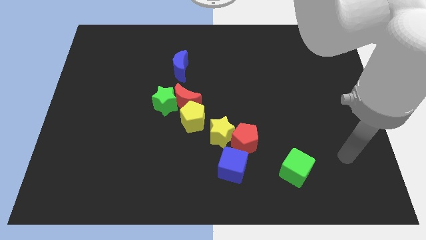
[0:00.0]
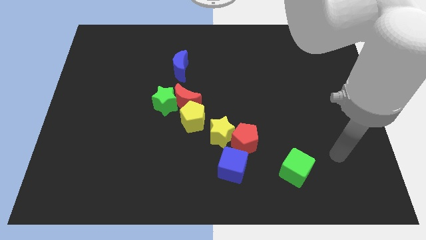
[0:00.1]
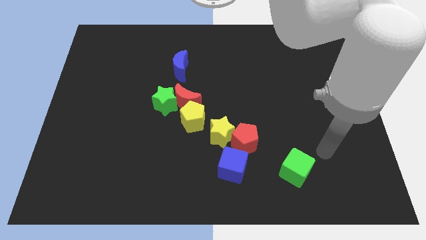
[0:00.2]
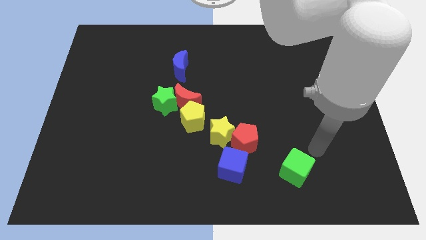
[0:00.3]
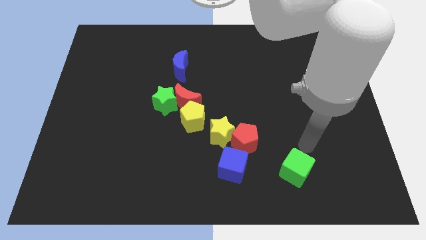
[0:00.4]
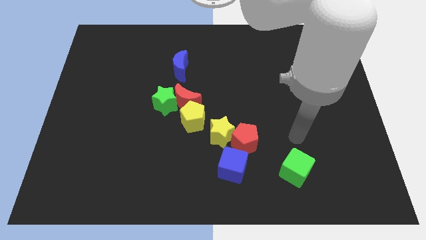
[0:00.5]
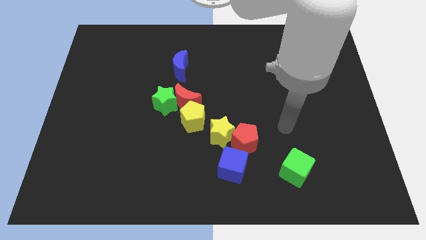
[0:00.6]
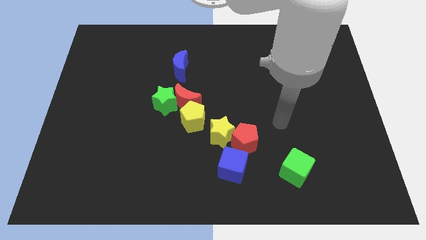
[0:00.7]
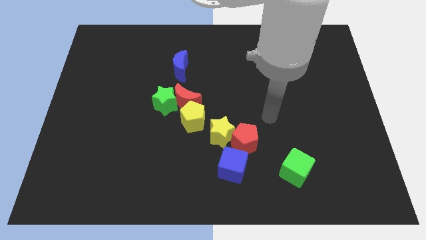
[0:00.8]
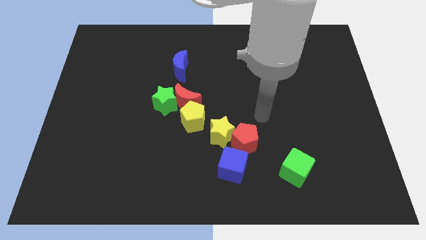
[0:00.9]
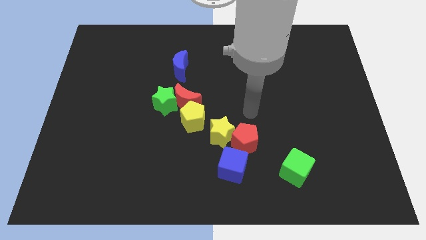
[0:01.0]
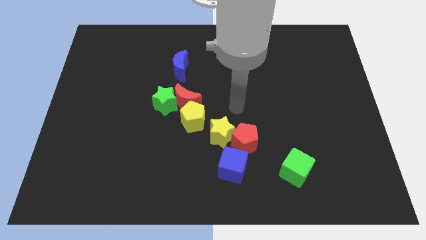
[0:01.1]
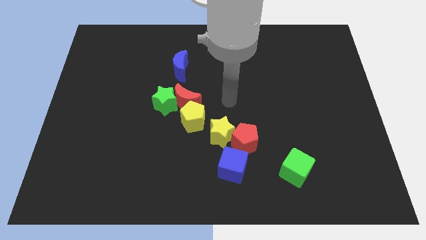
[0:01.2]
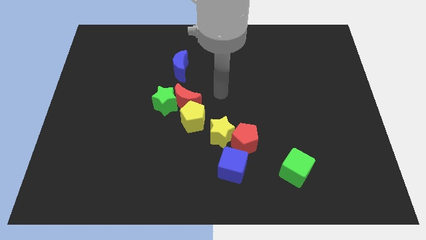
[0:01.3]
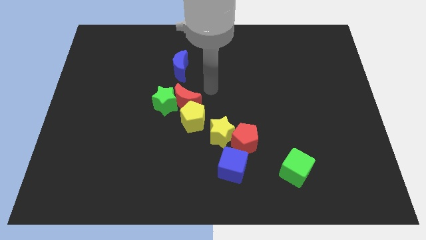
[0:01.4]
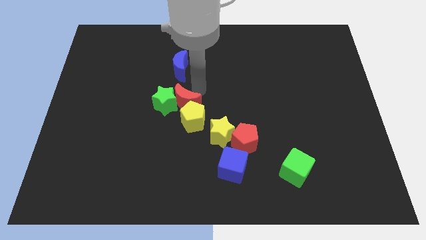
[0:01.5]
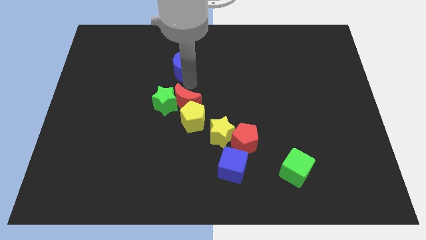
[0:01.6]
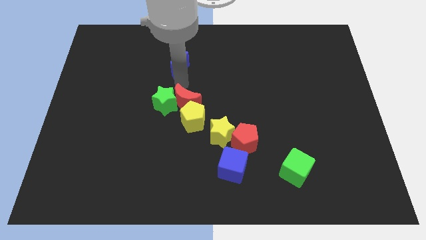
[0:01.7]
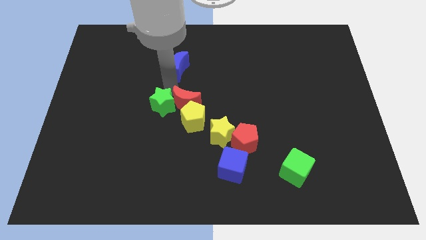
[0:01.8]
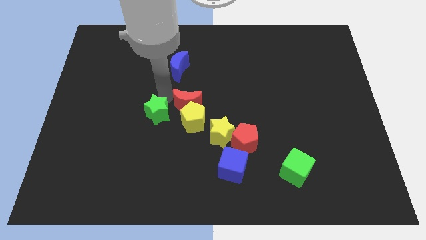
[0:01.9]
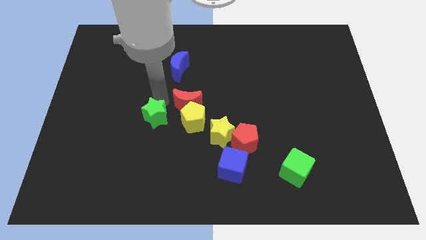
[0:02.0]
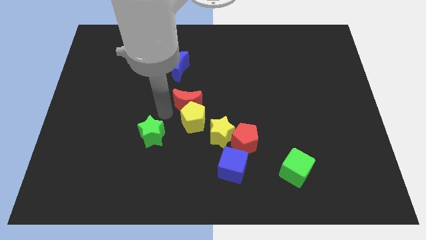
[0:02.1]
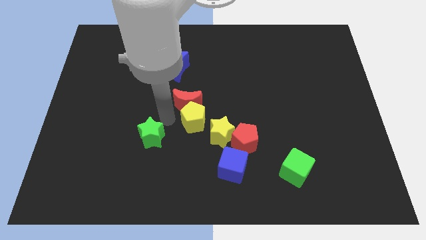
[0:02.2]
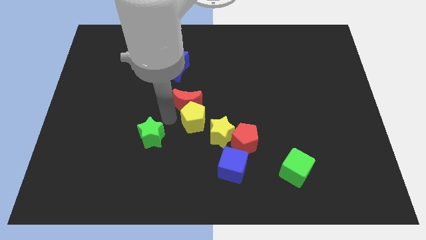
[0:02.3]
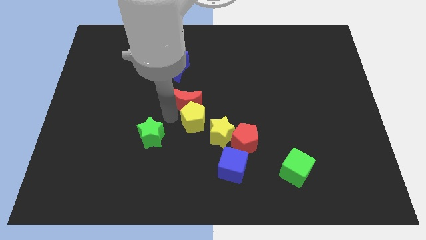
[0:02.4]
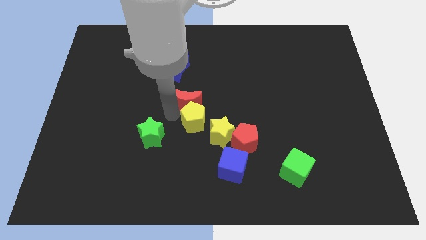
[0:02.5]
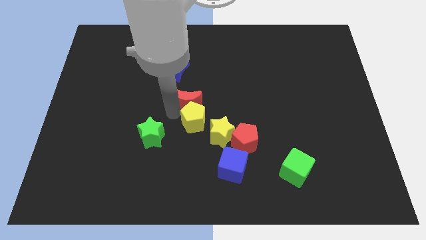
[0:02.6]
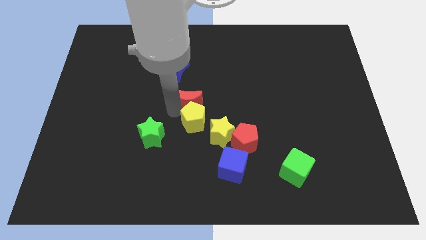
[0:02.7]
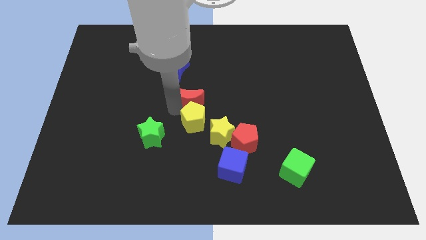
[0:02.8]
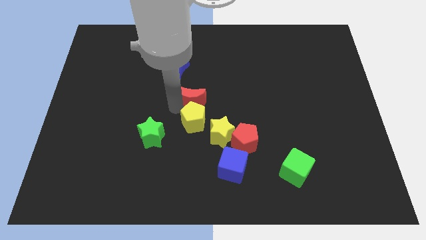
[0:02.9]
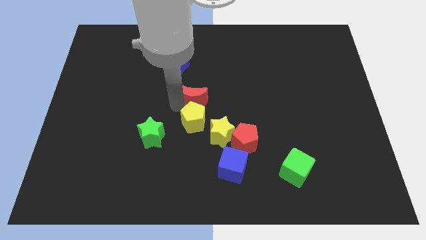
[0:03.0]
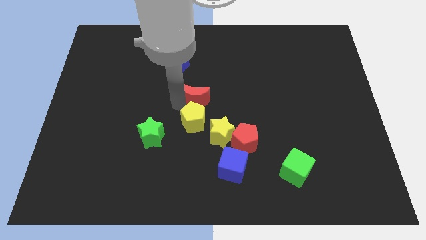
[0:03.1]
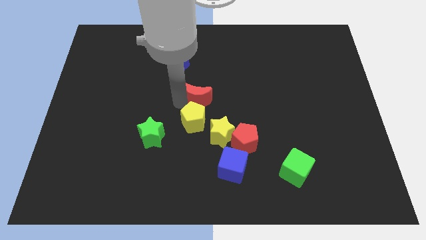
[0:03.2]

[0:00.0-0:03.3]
separate the red moon from the green star and yellow pentagon

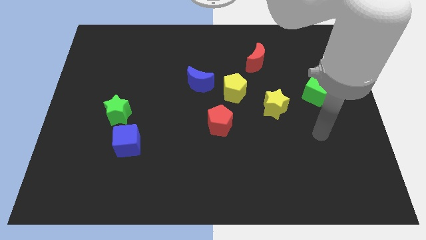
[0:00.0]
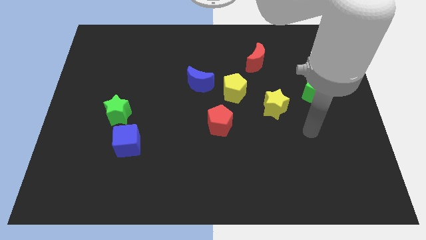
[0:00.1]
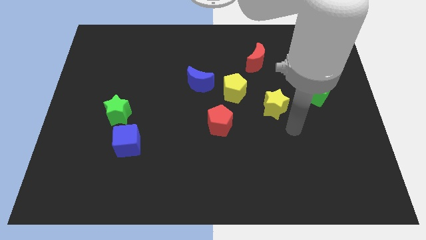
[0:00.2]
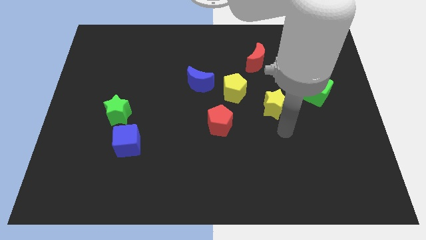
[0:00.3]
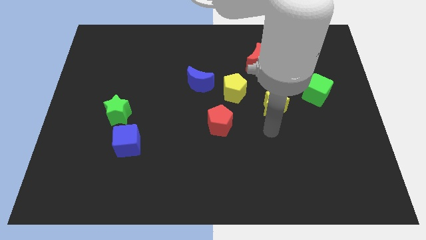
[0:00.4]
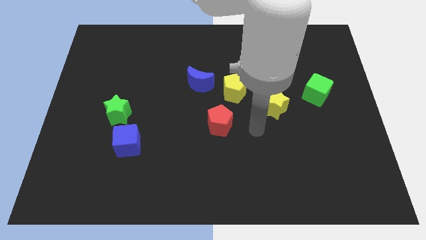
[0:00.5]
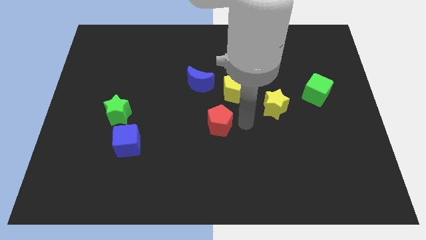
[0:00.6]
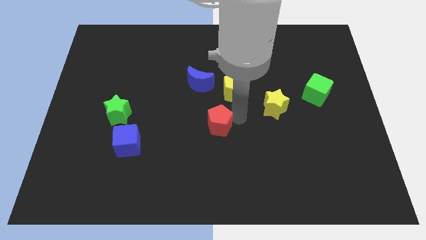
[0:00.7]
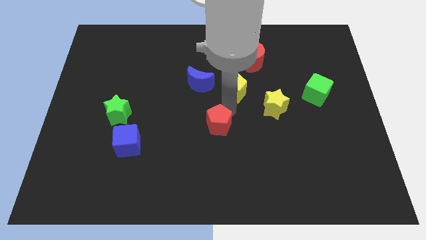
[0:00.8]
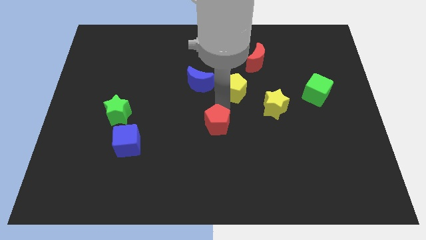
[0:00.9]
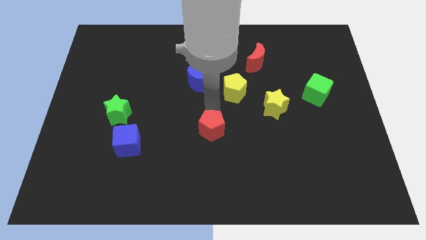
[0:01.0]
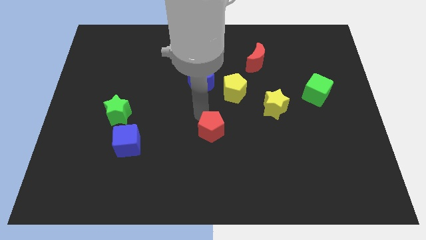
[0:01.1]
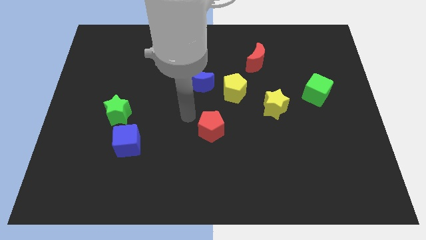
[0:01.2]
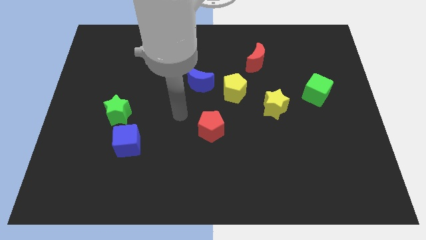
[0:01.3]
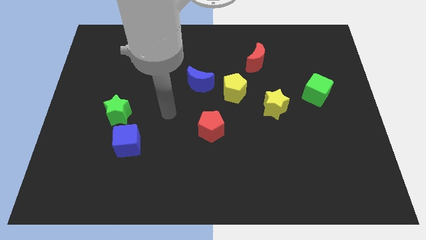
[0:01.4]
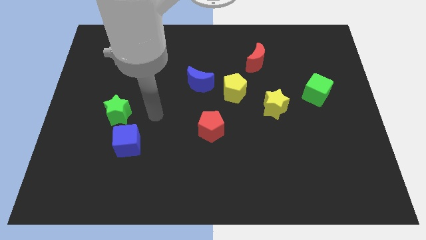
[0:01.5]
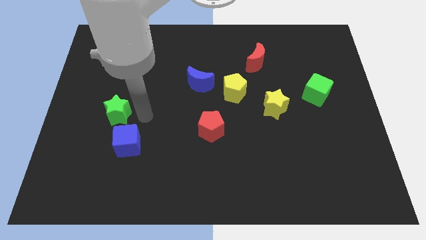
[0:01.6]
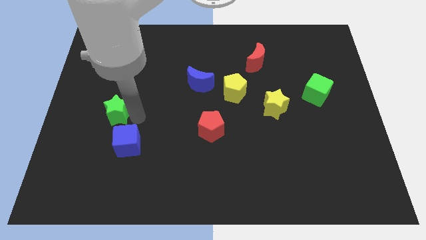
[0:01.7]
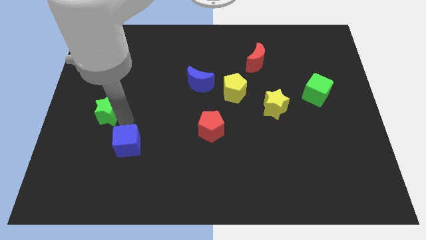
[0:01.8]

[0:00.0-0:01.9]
move the blue cube away from the green star

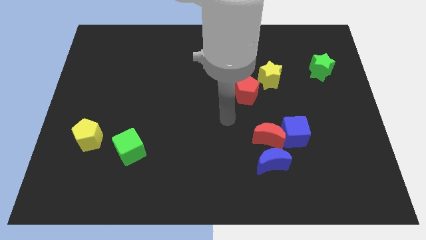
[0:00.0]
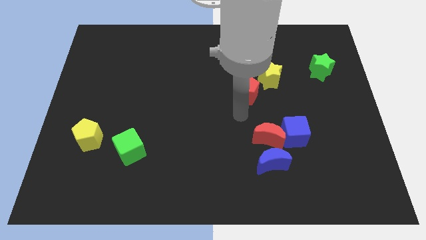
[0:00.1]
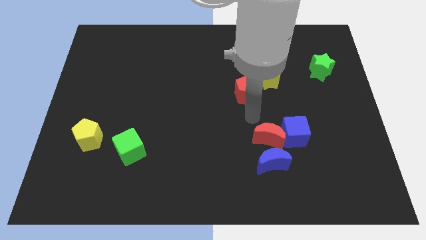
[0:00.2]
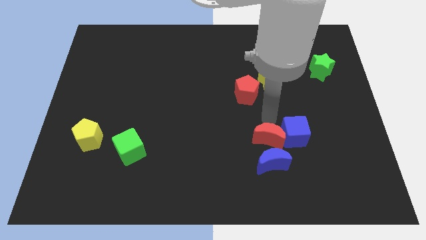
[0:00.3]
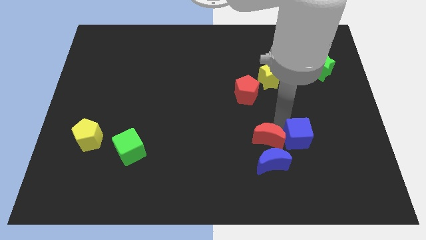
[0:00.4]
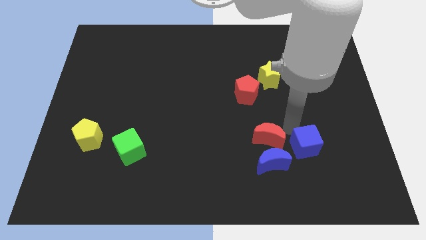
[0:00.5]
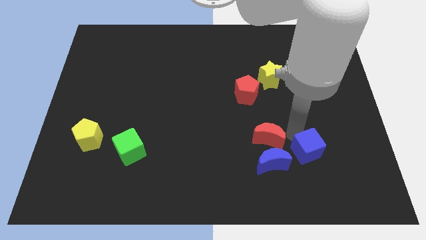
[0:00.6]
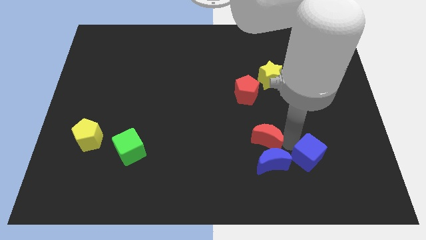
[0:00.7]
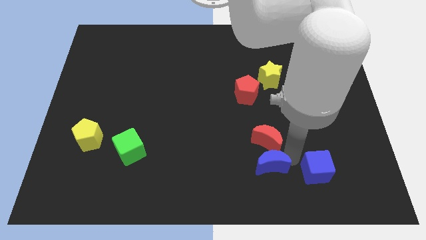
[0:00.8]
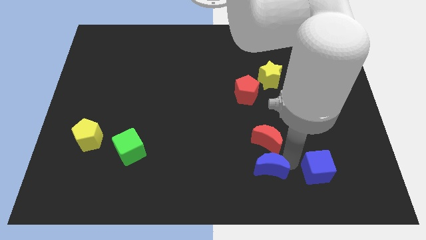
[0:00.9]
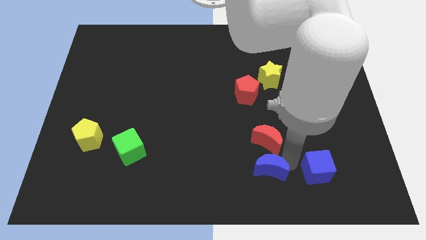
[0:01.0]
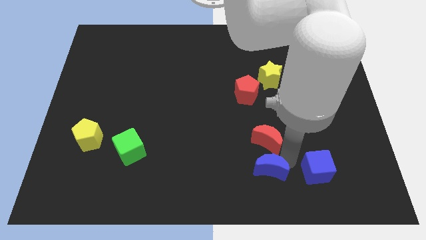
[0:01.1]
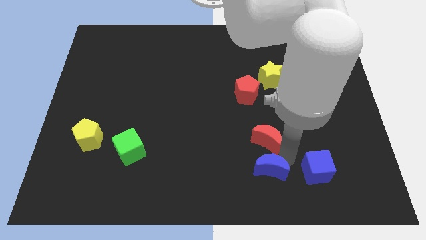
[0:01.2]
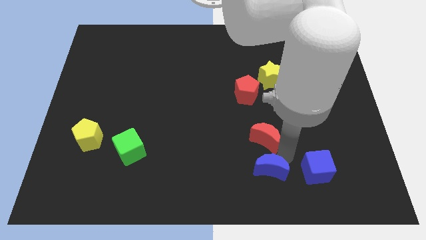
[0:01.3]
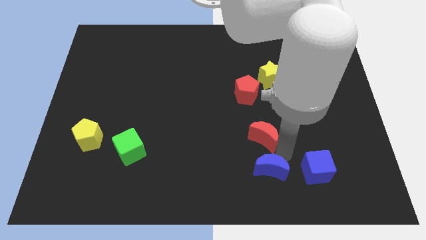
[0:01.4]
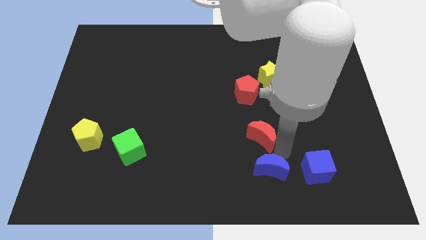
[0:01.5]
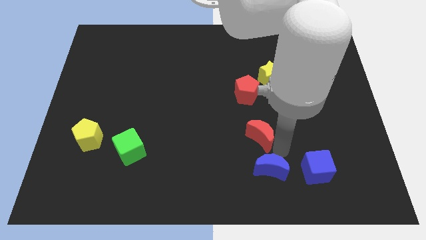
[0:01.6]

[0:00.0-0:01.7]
separate the red moon from the blue cube and blue moon

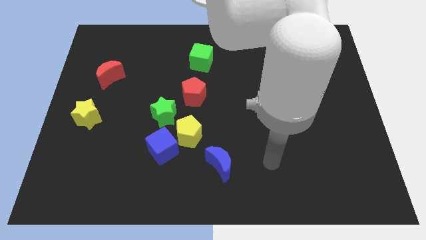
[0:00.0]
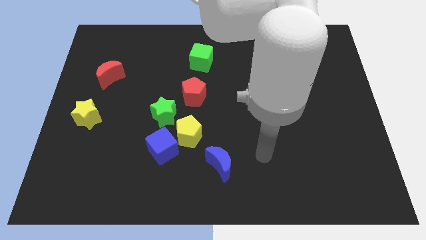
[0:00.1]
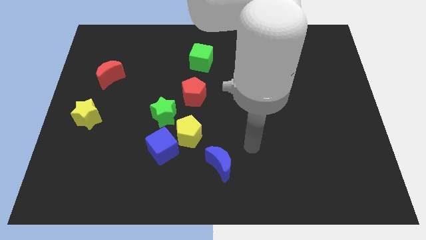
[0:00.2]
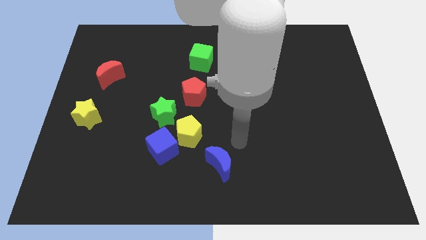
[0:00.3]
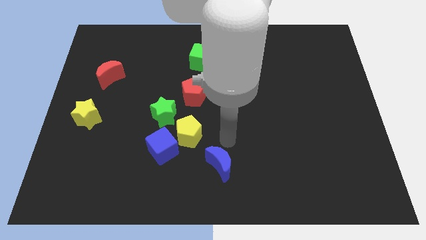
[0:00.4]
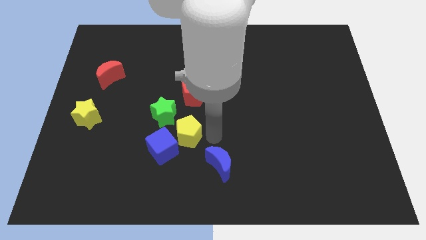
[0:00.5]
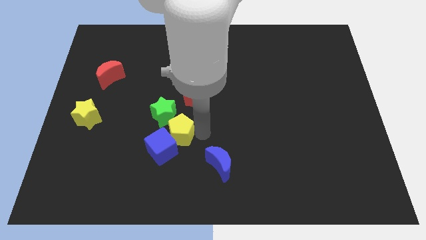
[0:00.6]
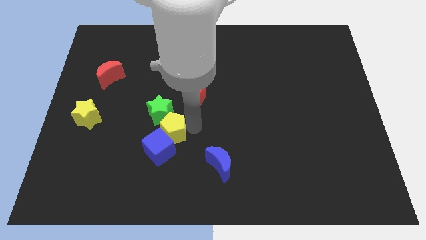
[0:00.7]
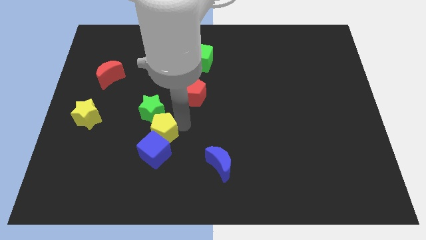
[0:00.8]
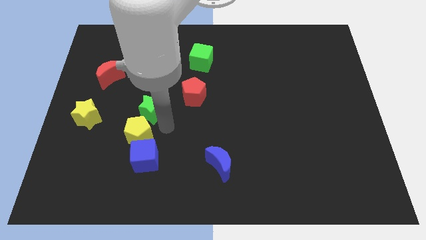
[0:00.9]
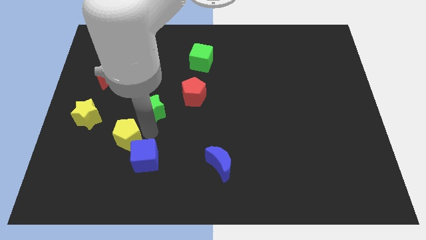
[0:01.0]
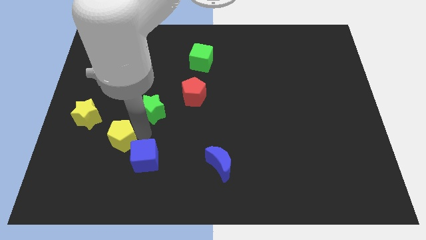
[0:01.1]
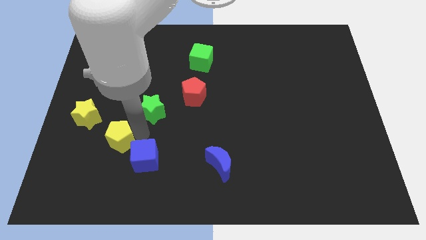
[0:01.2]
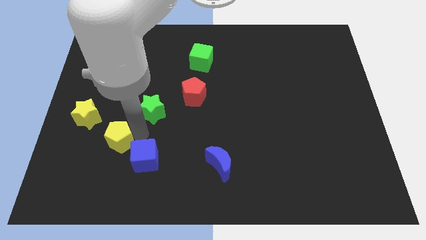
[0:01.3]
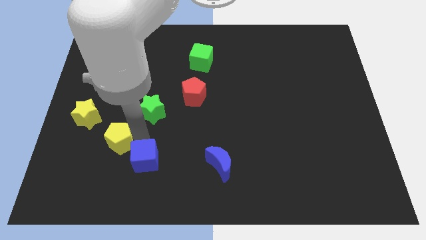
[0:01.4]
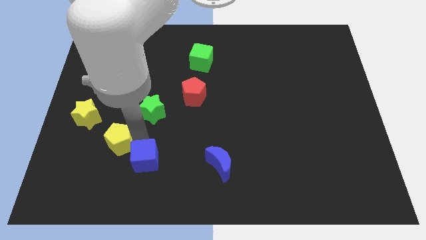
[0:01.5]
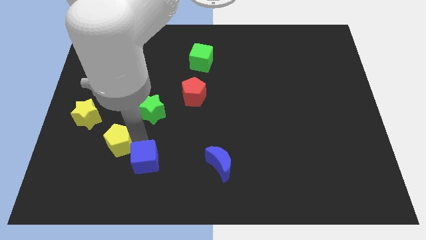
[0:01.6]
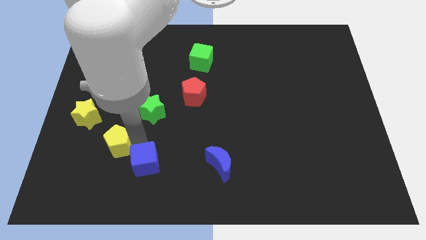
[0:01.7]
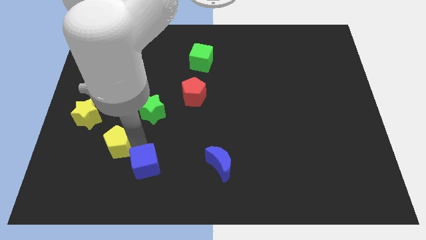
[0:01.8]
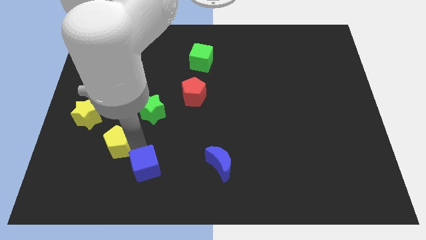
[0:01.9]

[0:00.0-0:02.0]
move the blue cube away from the yellow pentagon and green star
